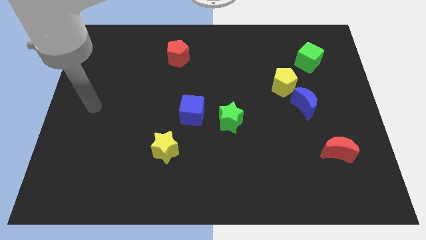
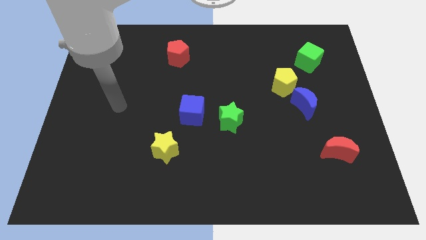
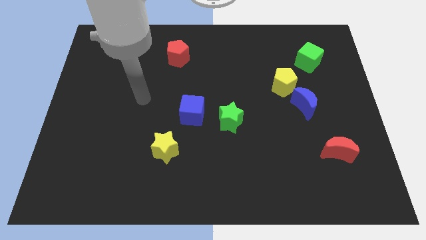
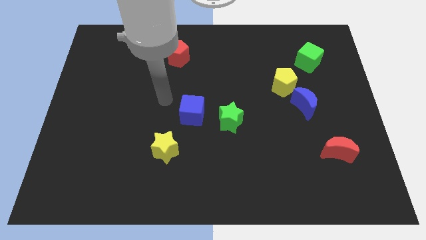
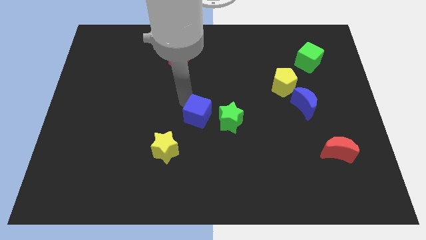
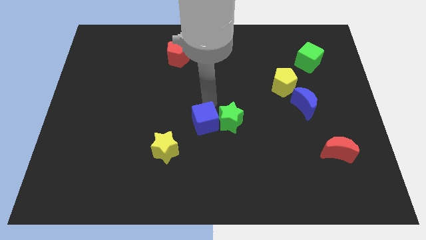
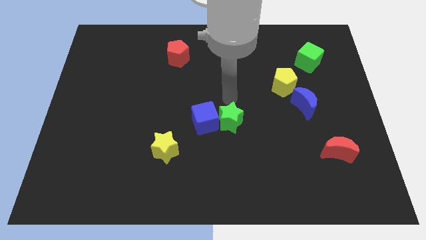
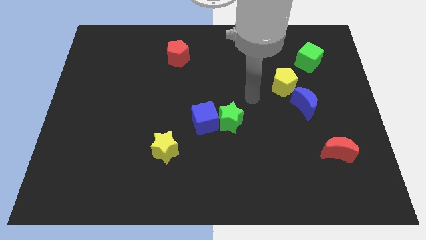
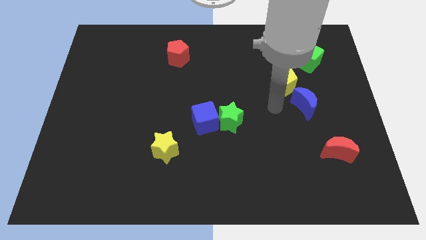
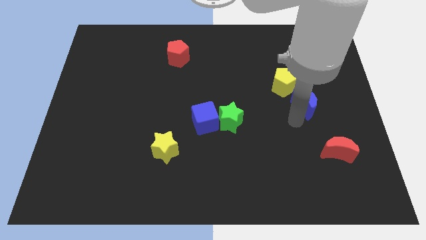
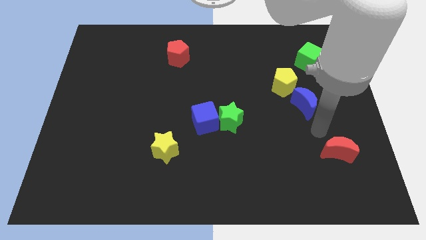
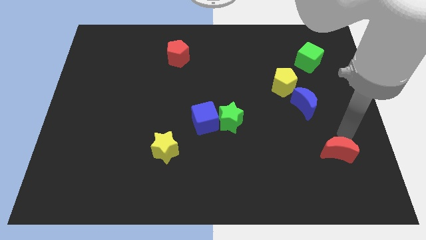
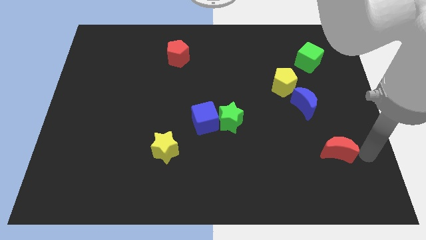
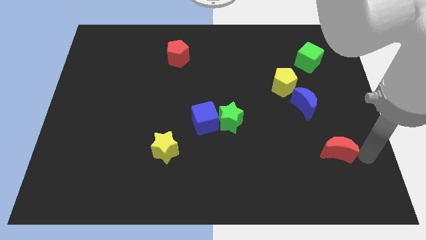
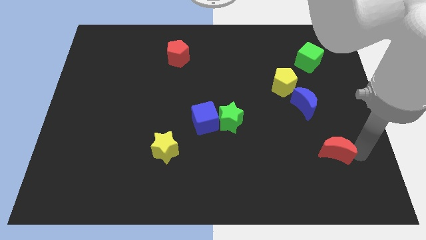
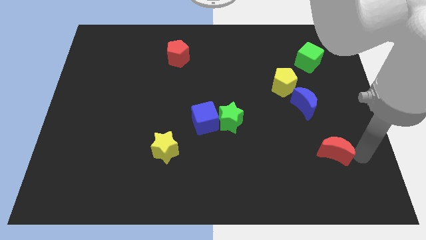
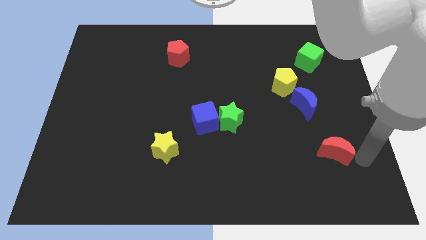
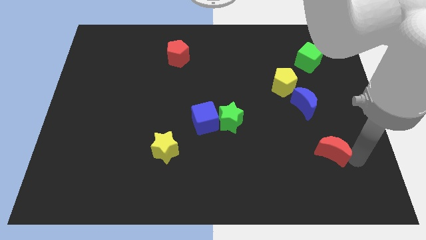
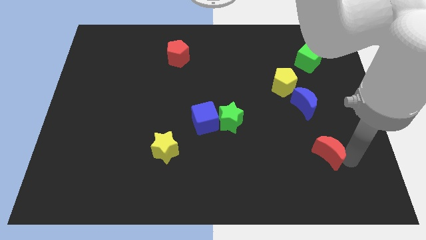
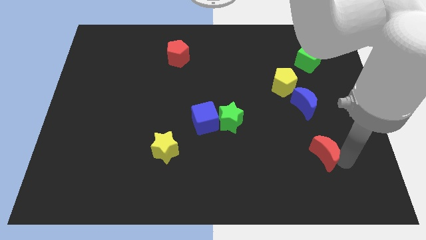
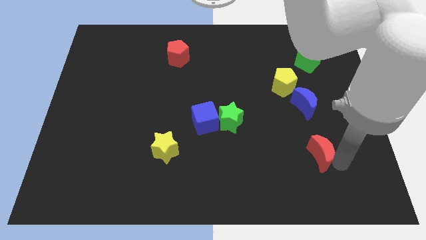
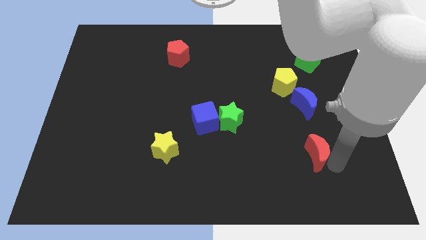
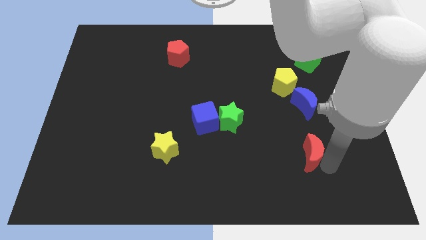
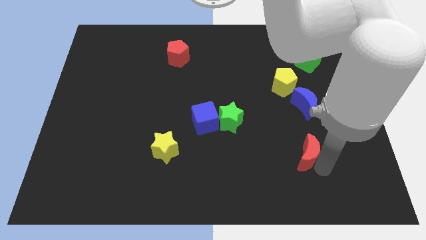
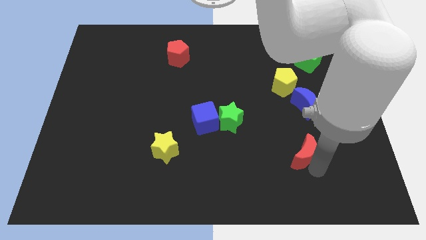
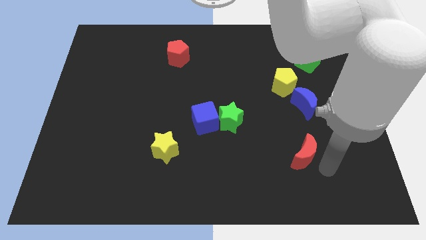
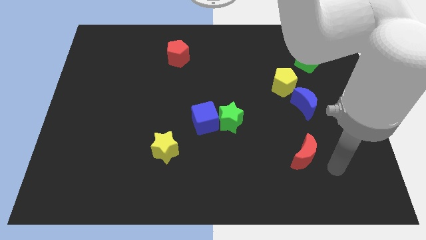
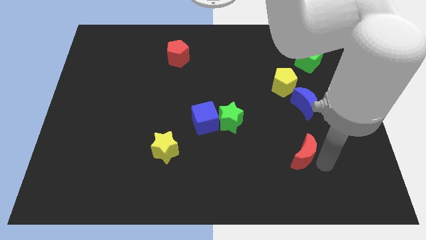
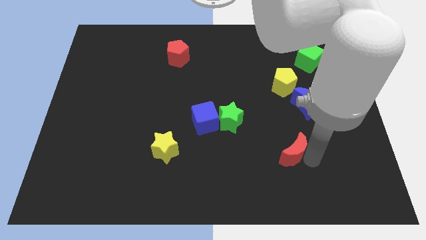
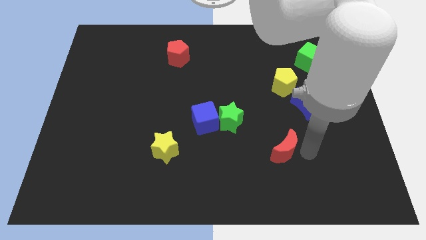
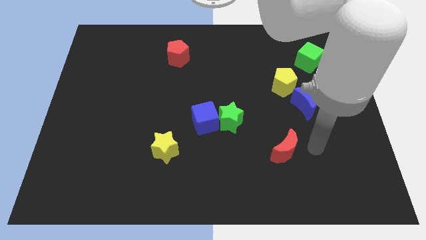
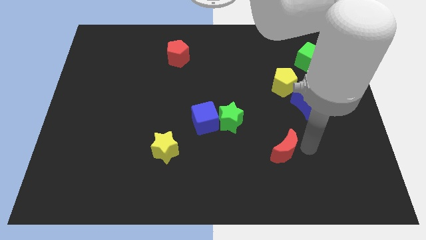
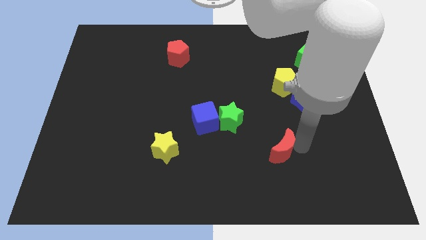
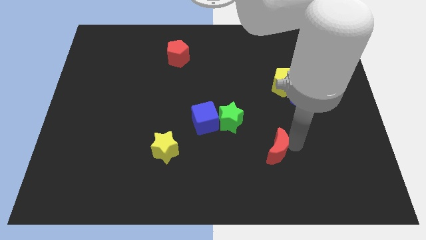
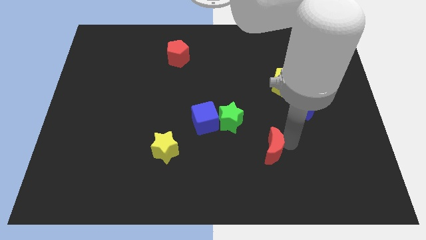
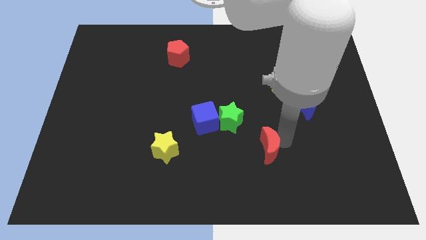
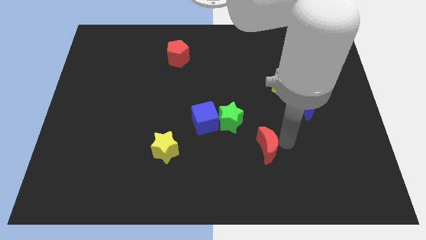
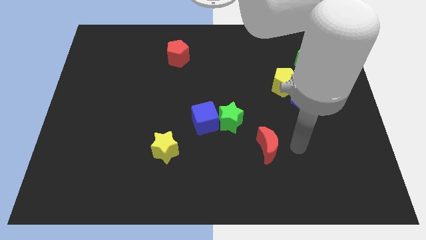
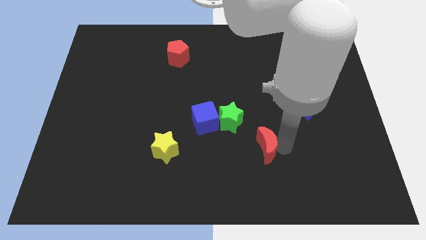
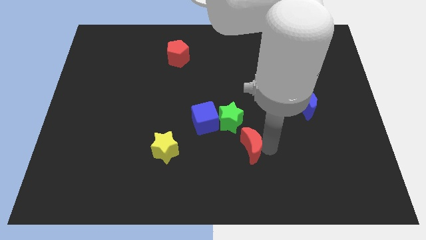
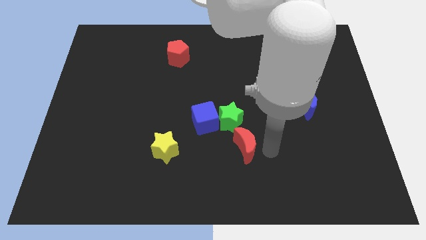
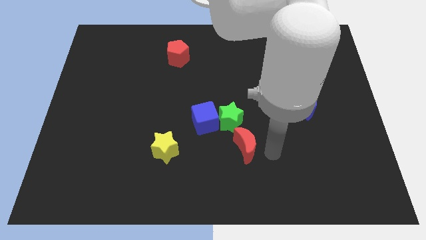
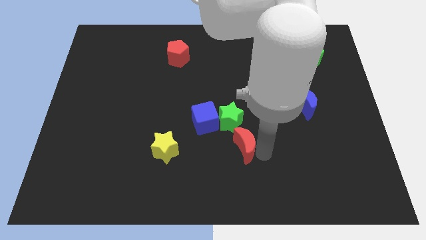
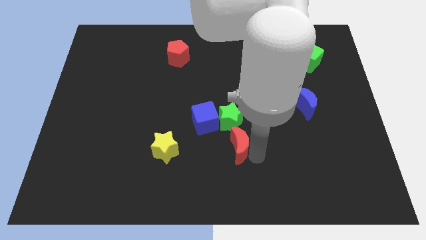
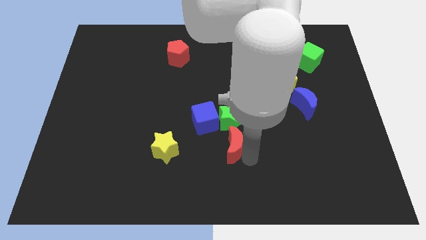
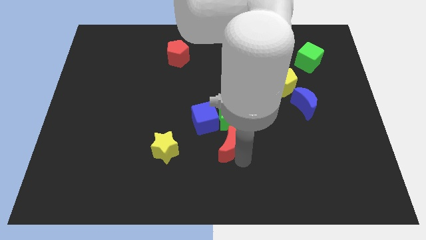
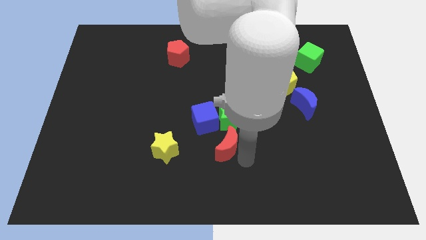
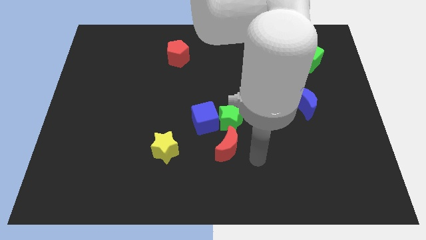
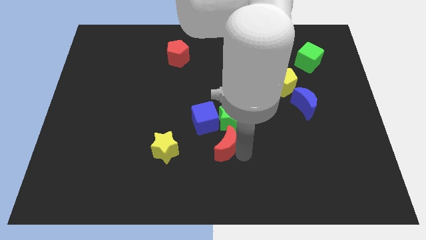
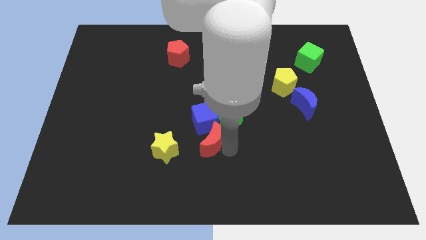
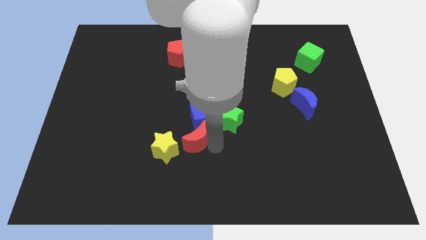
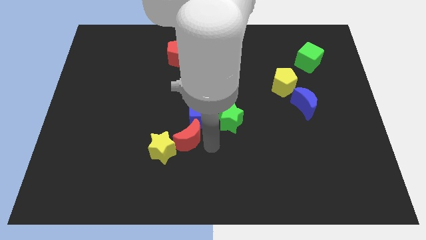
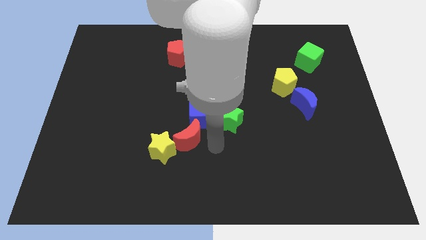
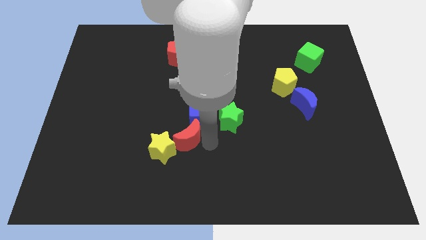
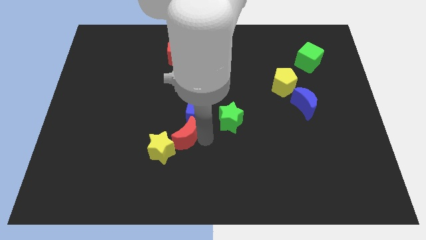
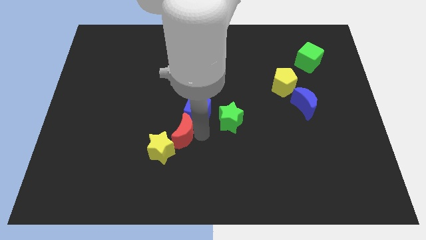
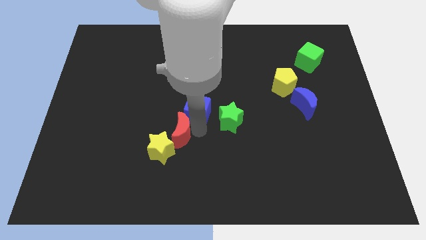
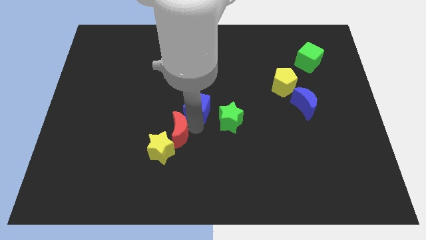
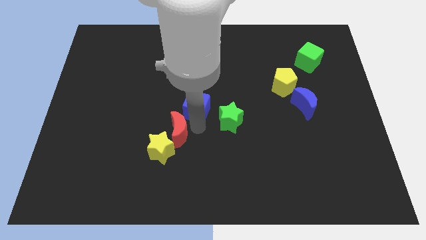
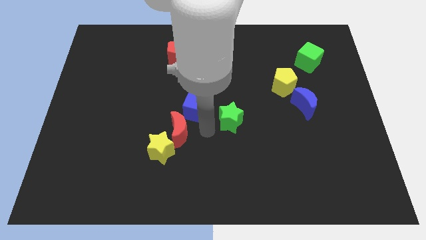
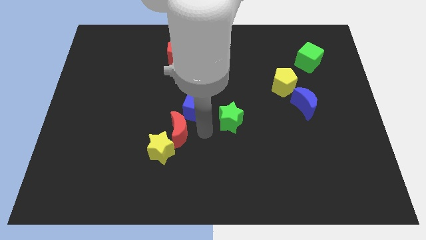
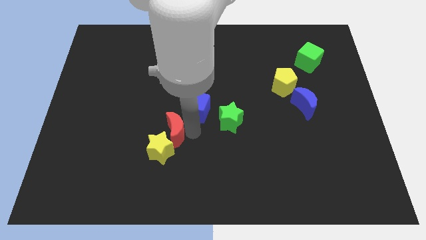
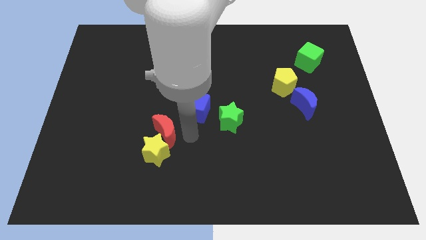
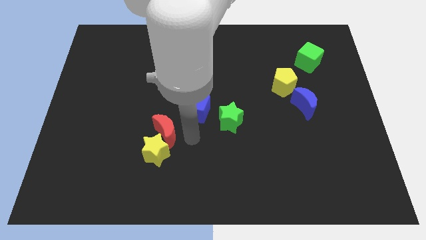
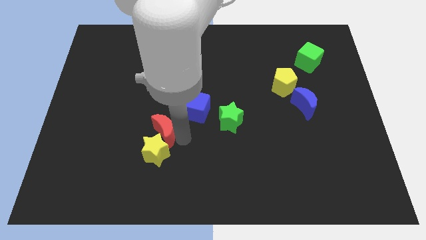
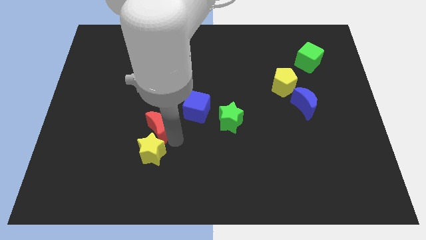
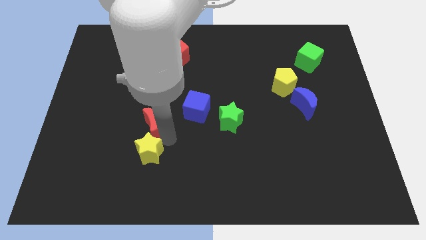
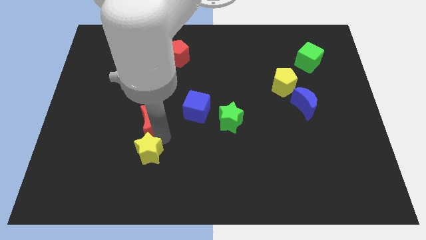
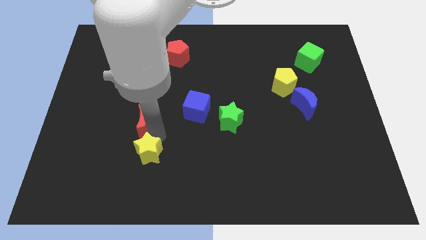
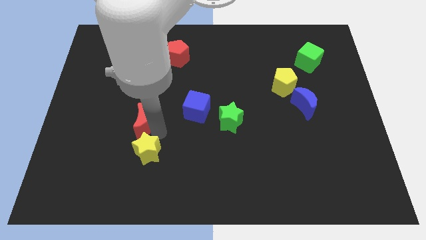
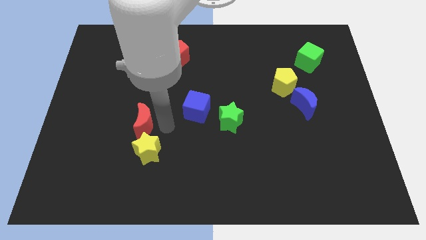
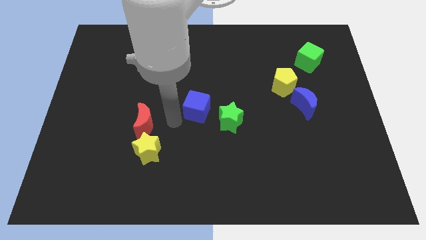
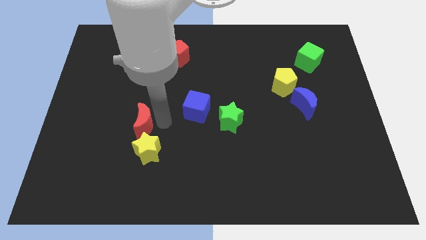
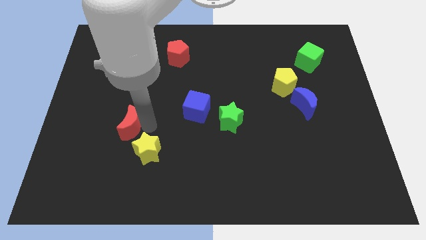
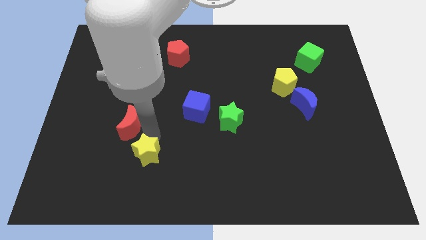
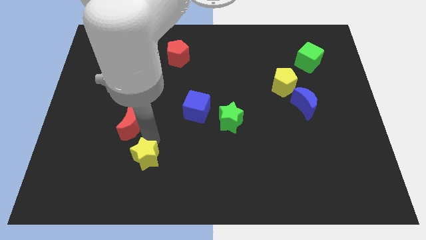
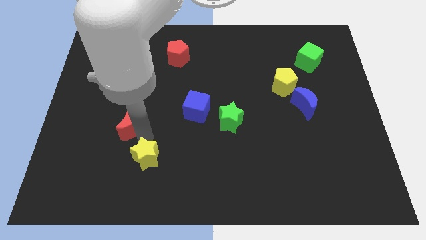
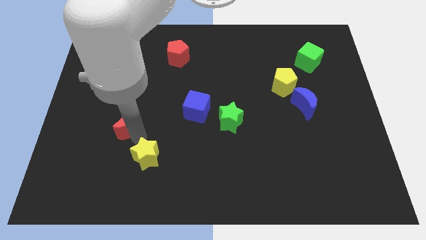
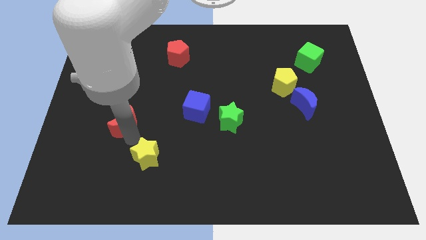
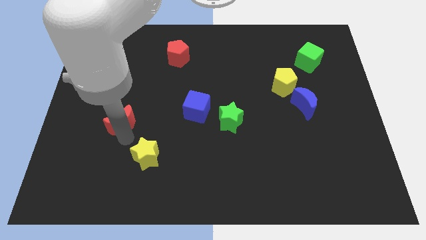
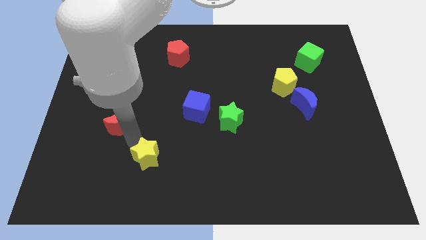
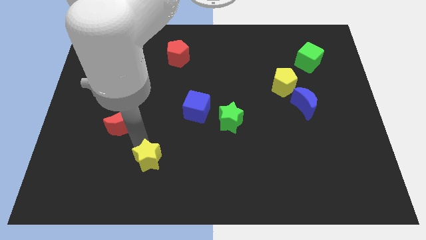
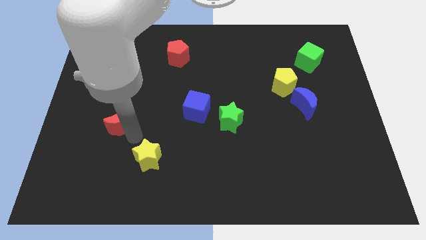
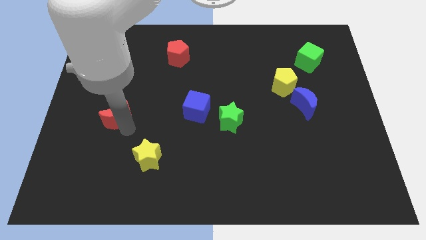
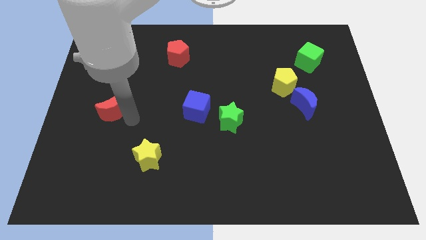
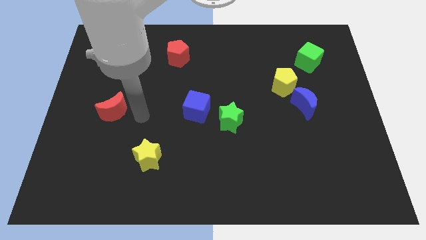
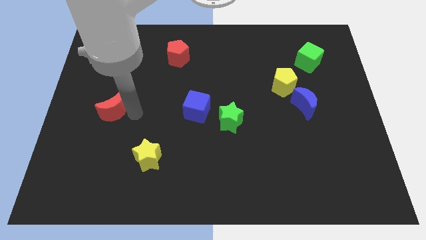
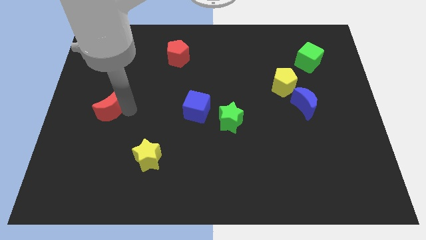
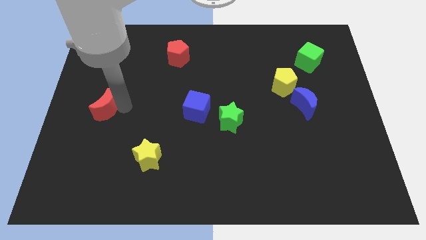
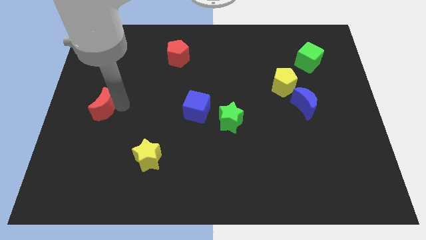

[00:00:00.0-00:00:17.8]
move the red moon to the left side of the board
